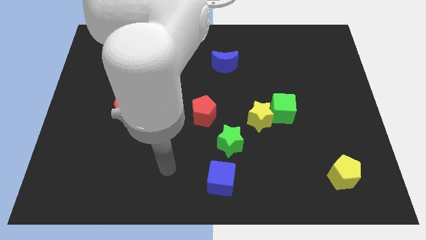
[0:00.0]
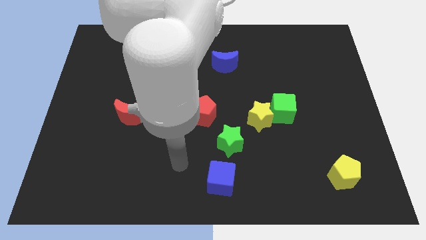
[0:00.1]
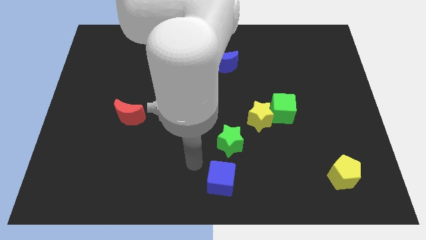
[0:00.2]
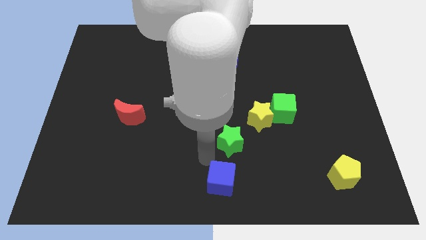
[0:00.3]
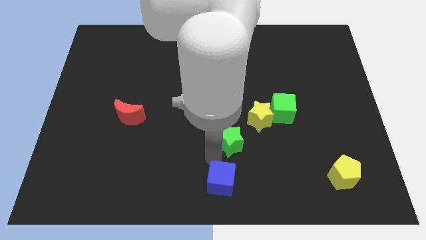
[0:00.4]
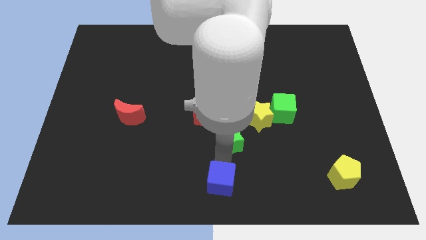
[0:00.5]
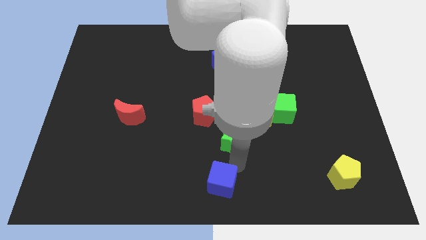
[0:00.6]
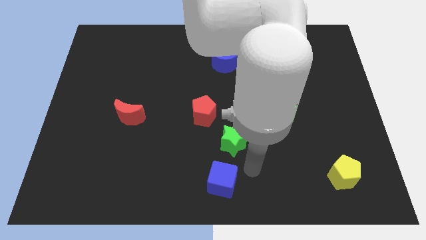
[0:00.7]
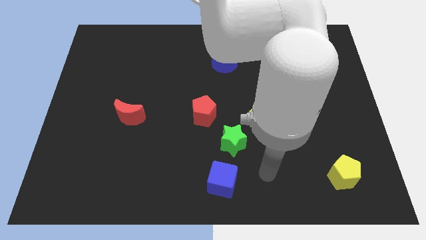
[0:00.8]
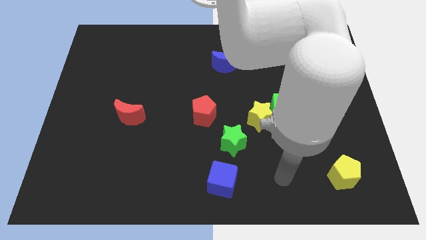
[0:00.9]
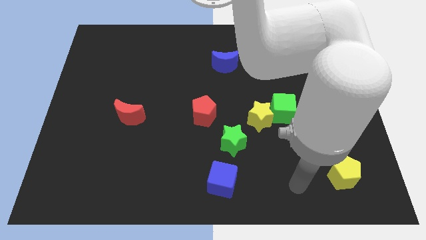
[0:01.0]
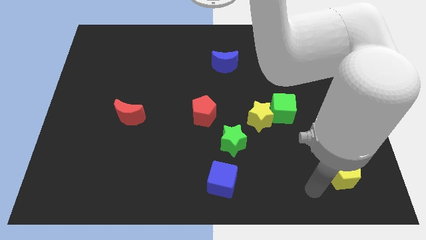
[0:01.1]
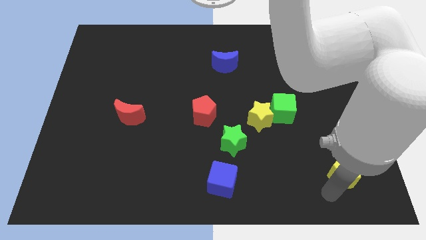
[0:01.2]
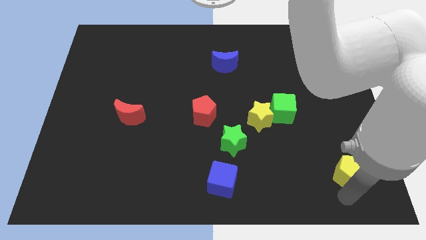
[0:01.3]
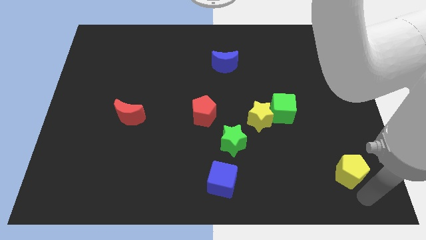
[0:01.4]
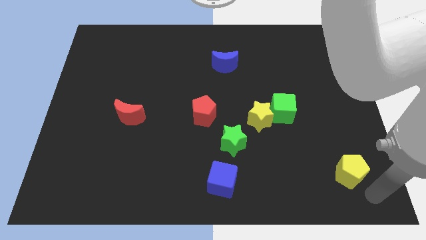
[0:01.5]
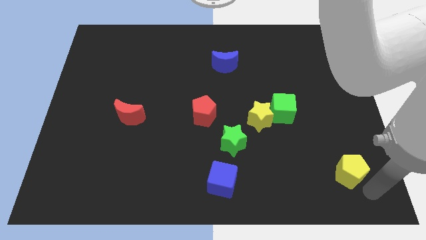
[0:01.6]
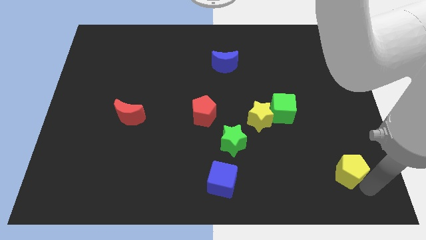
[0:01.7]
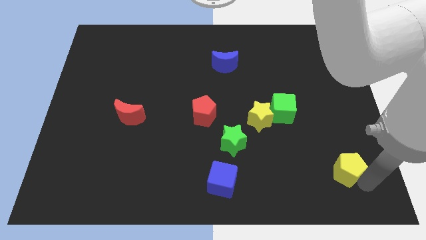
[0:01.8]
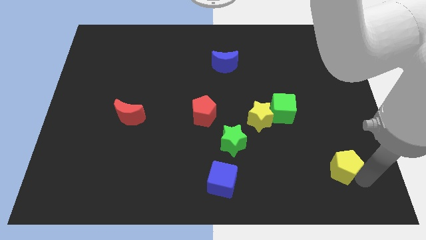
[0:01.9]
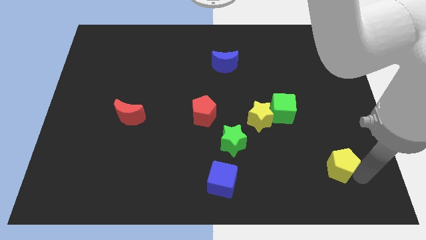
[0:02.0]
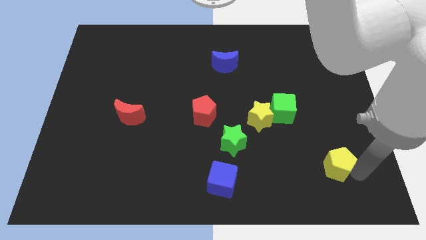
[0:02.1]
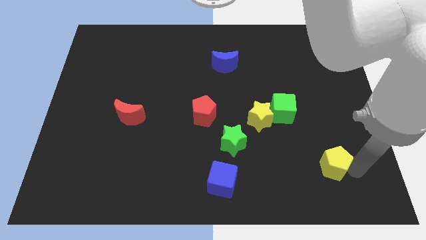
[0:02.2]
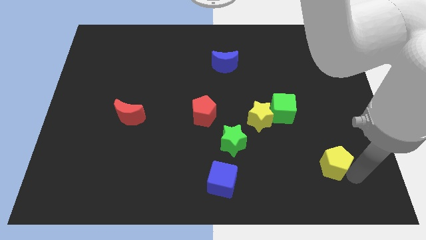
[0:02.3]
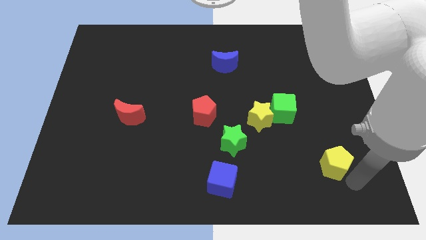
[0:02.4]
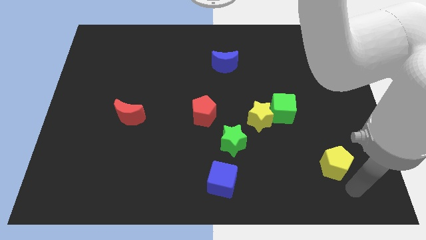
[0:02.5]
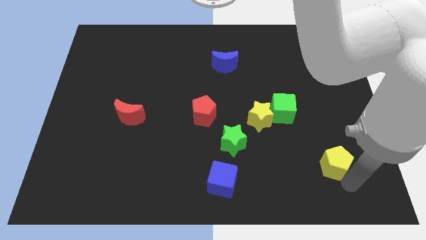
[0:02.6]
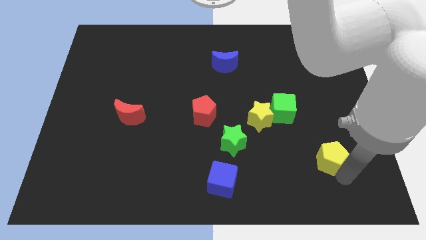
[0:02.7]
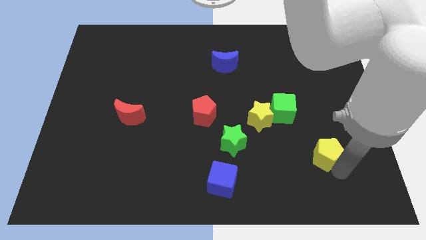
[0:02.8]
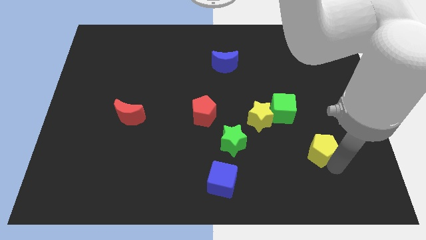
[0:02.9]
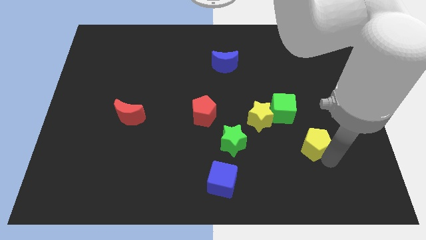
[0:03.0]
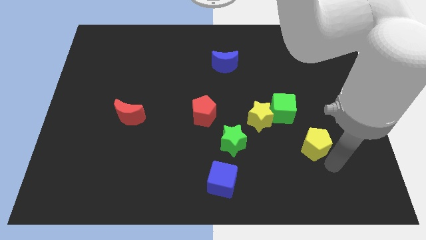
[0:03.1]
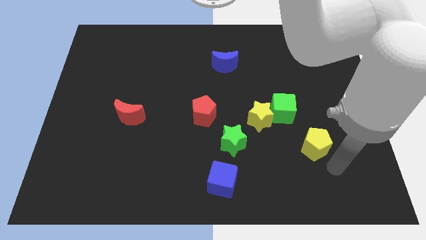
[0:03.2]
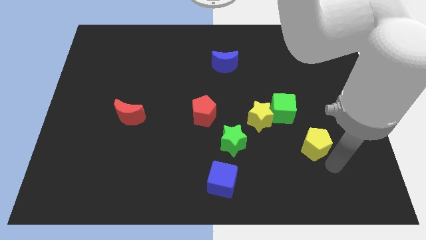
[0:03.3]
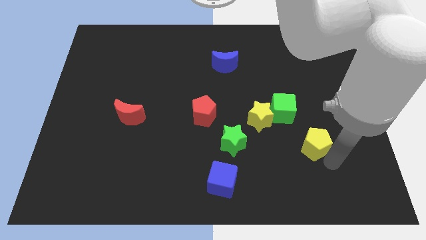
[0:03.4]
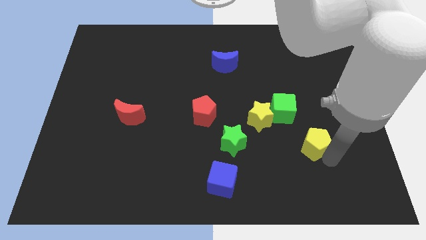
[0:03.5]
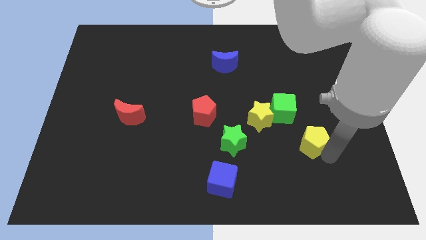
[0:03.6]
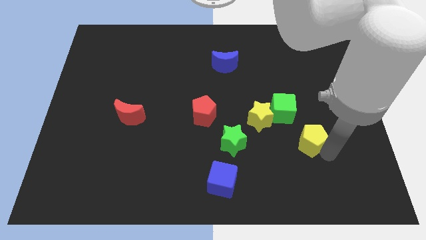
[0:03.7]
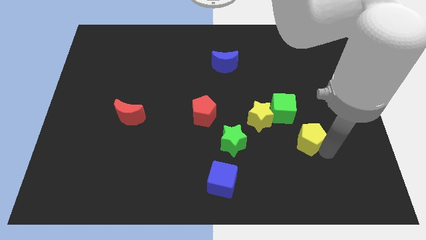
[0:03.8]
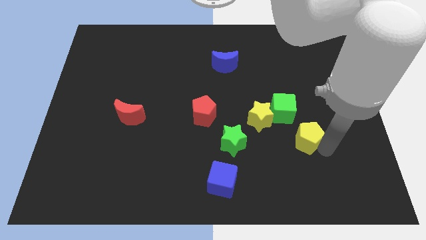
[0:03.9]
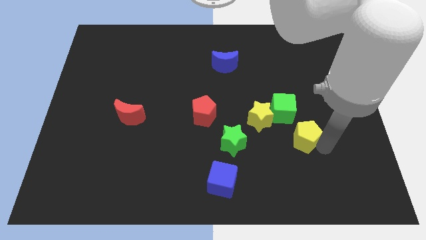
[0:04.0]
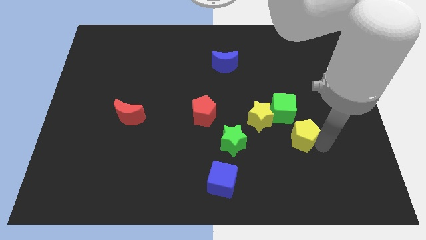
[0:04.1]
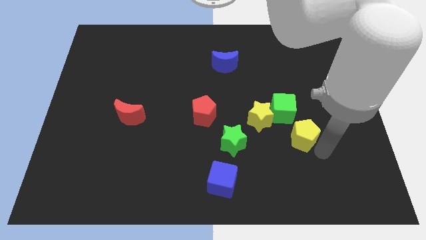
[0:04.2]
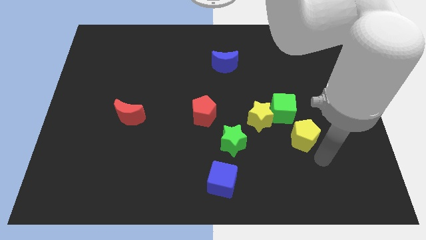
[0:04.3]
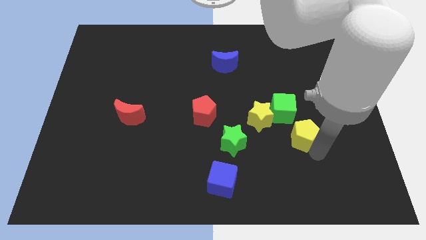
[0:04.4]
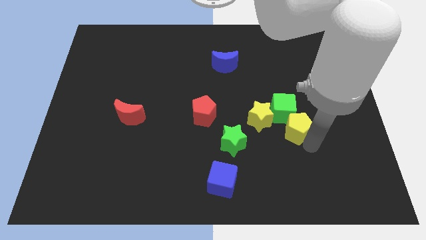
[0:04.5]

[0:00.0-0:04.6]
move the yellow pentagon towards the green cube

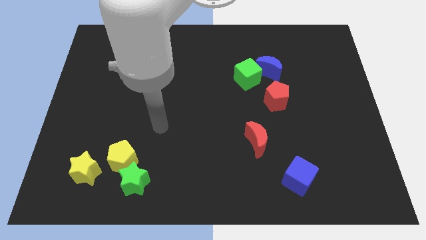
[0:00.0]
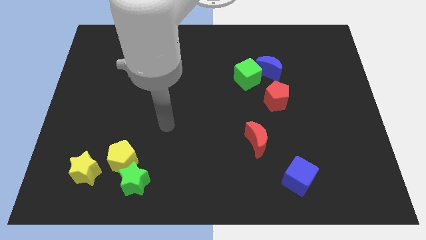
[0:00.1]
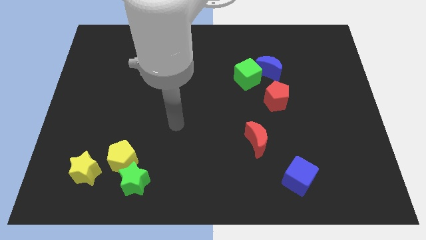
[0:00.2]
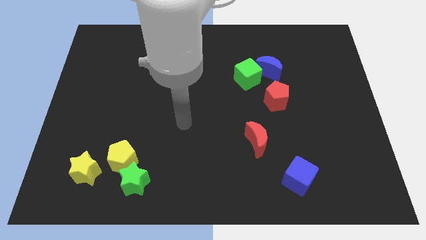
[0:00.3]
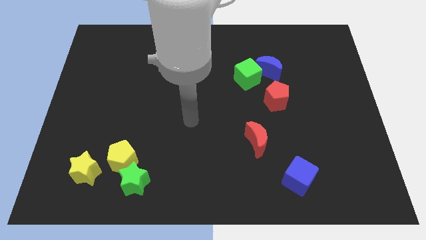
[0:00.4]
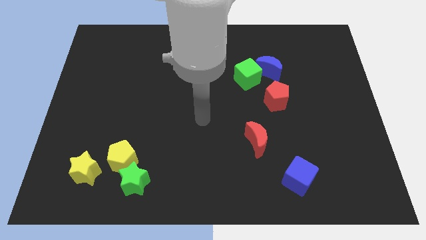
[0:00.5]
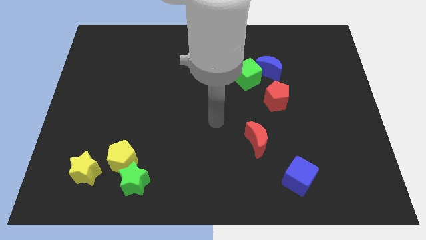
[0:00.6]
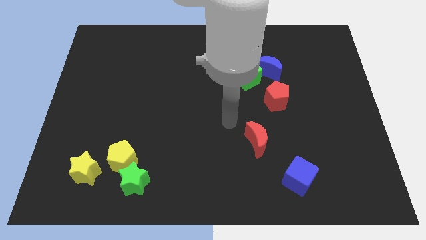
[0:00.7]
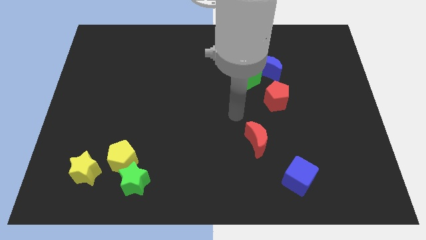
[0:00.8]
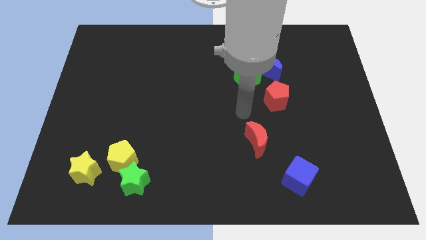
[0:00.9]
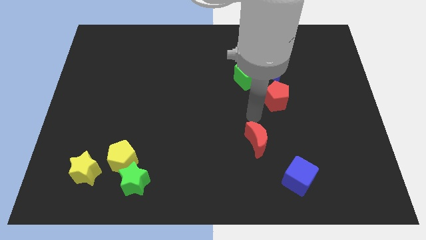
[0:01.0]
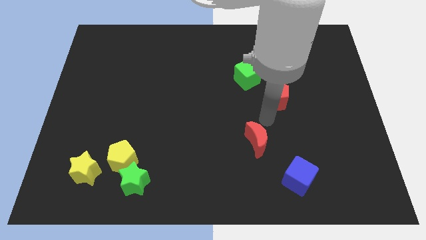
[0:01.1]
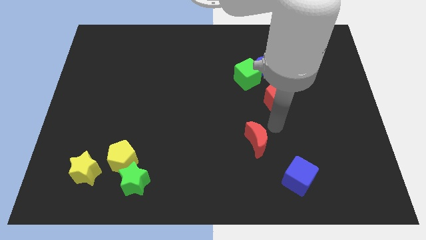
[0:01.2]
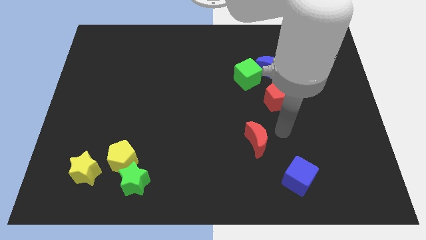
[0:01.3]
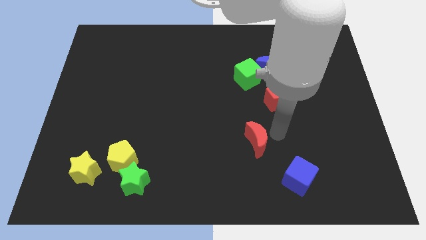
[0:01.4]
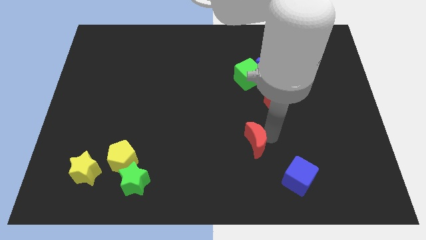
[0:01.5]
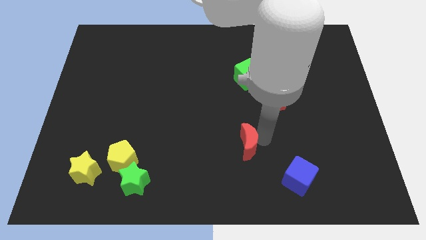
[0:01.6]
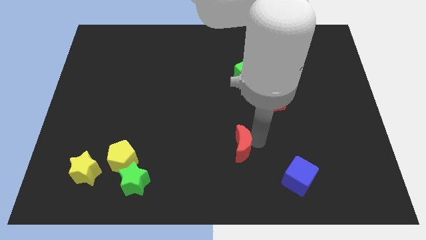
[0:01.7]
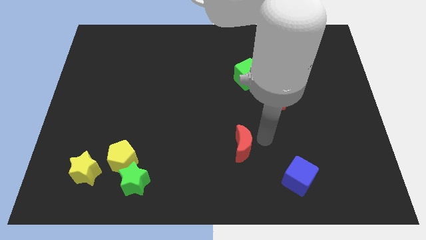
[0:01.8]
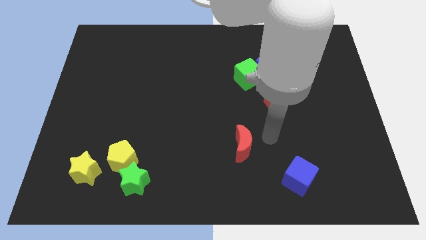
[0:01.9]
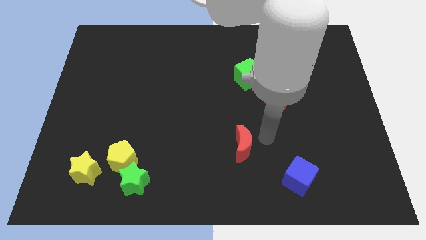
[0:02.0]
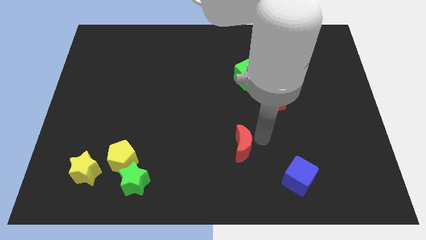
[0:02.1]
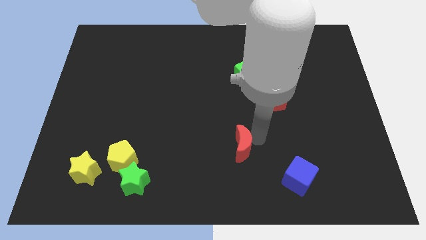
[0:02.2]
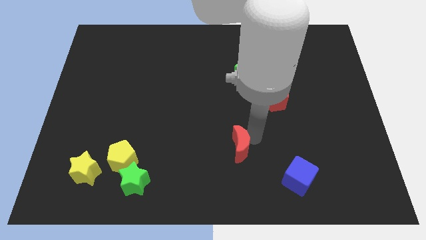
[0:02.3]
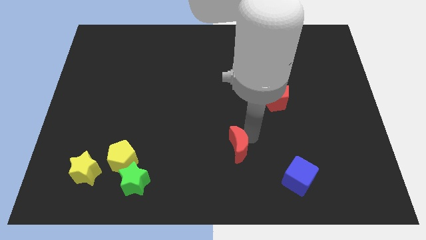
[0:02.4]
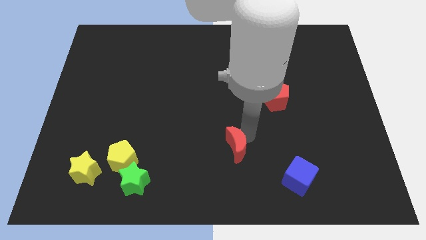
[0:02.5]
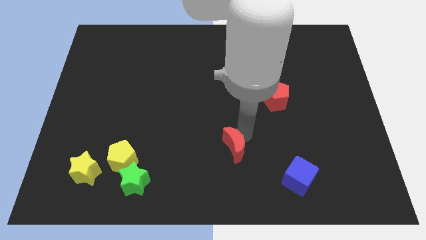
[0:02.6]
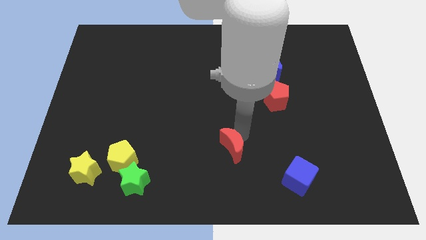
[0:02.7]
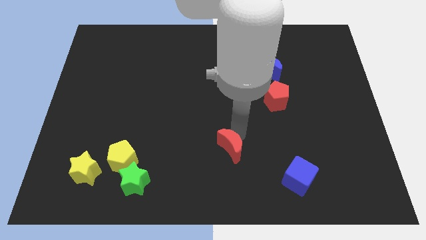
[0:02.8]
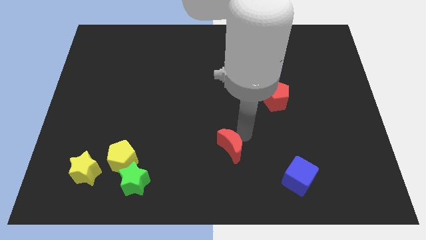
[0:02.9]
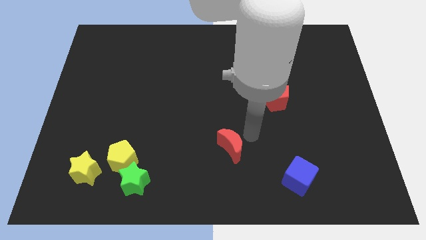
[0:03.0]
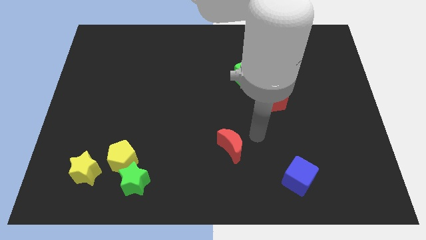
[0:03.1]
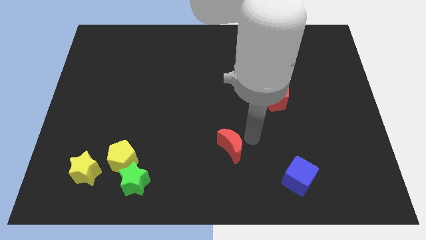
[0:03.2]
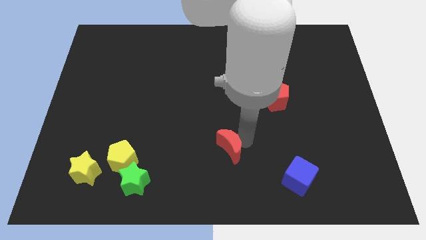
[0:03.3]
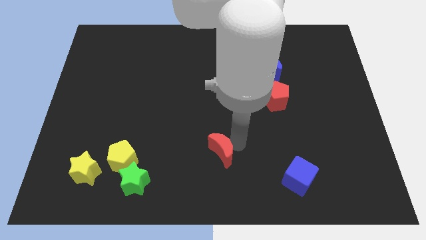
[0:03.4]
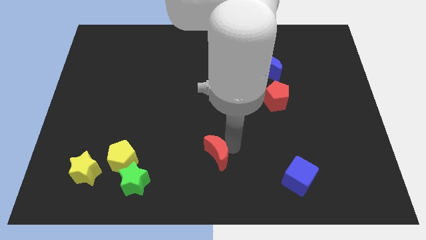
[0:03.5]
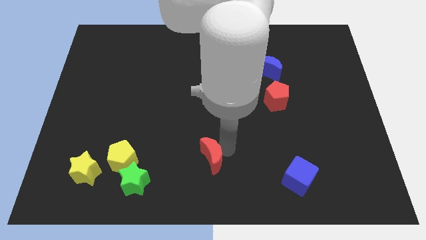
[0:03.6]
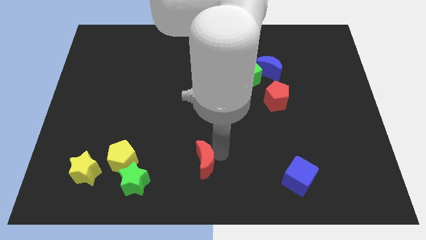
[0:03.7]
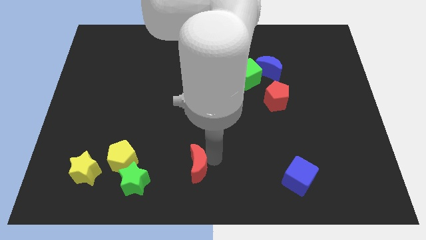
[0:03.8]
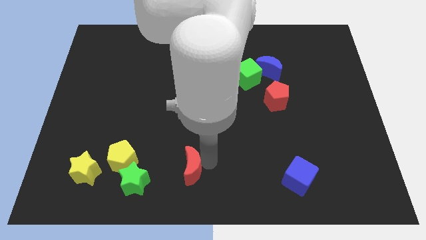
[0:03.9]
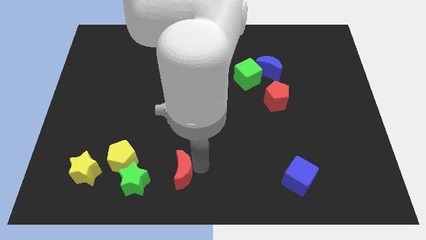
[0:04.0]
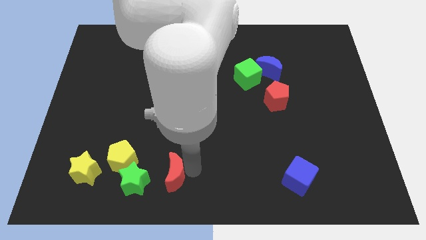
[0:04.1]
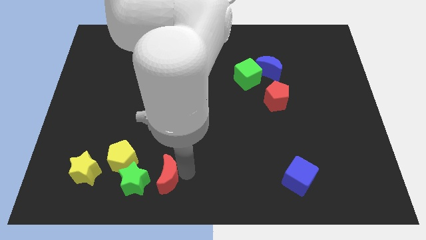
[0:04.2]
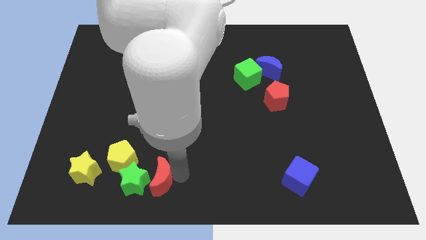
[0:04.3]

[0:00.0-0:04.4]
push the red moon towards the green star
